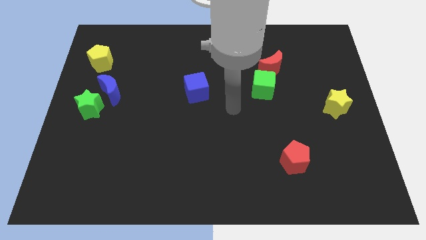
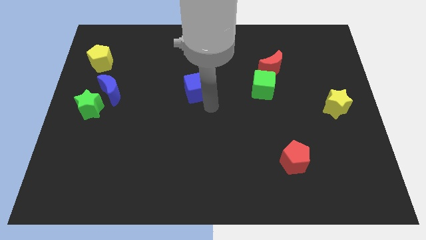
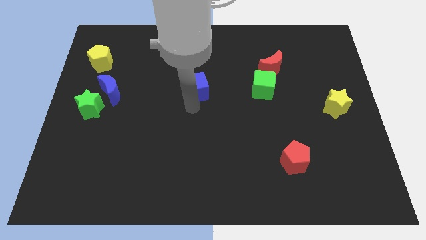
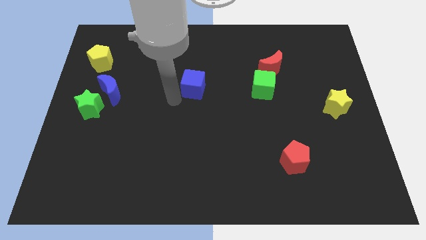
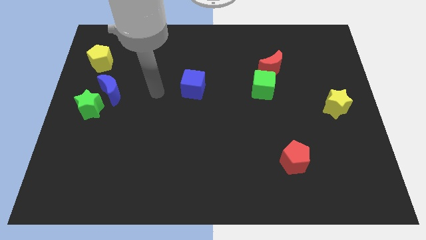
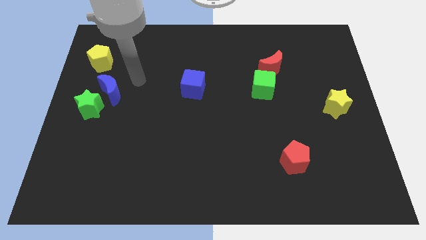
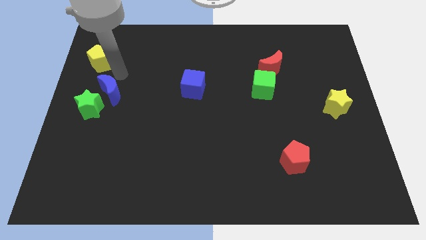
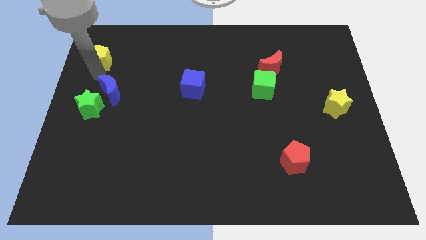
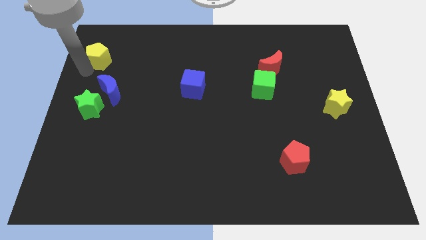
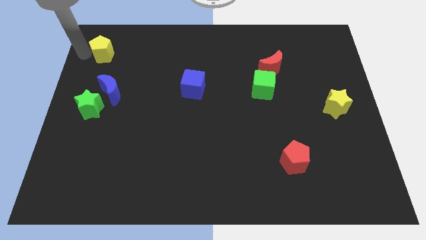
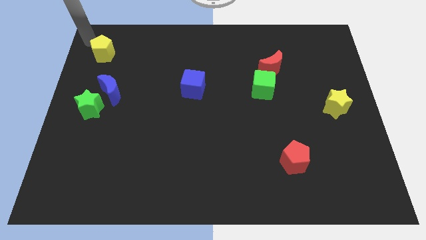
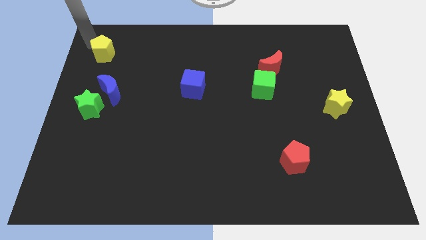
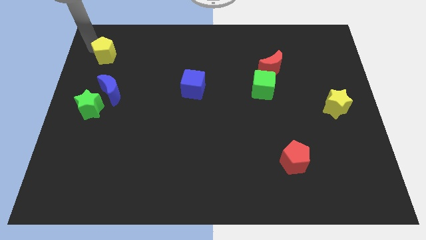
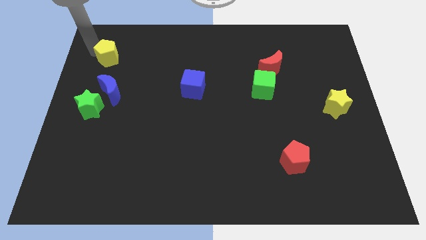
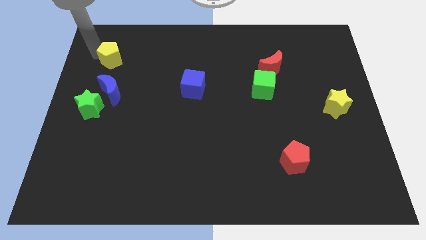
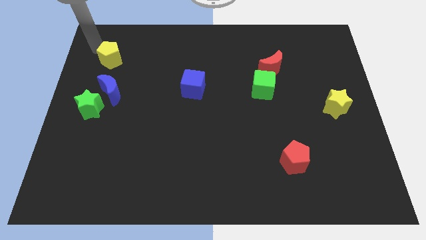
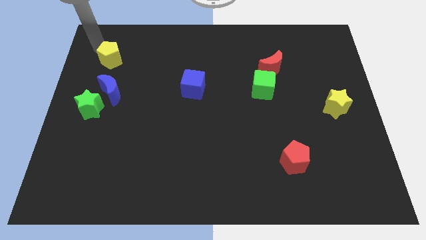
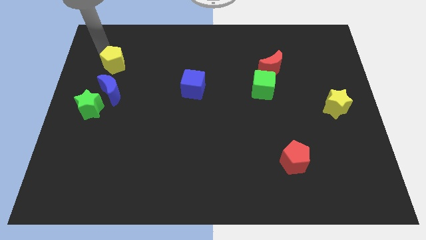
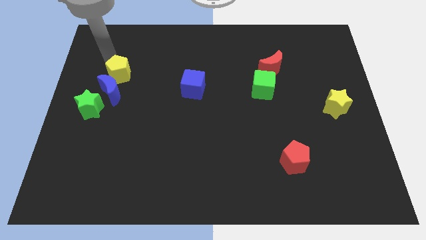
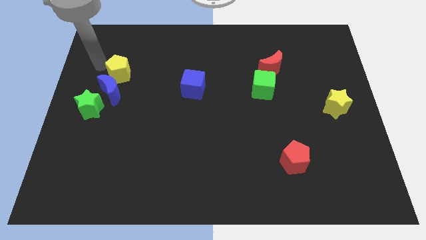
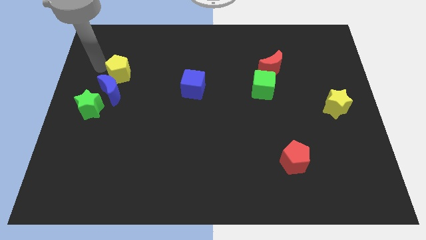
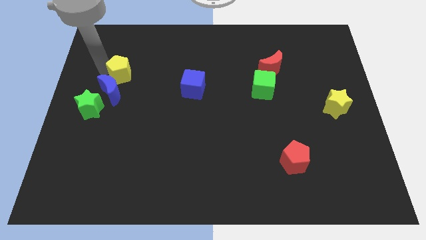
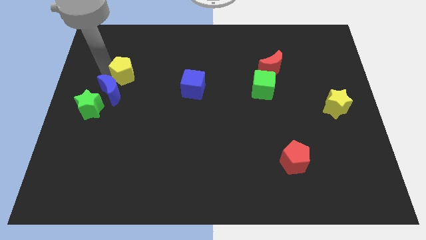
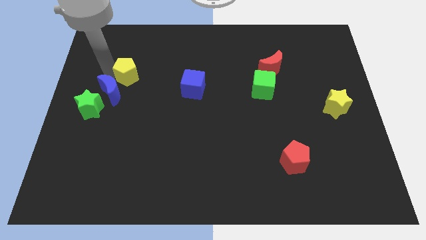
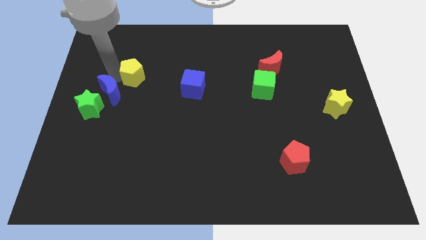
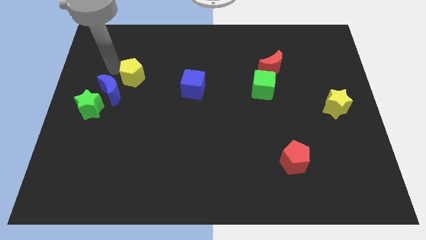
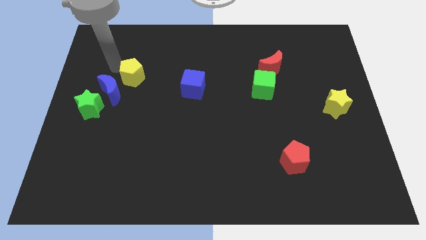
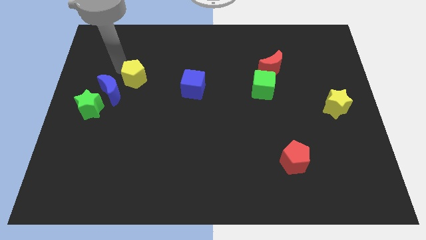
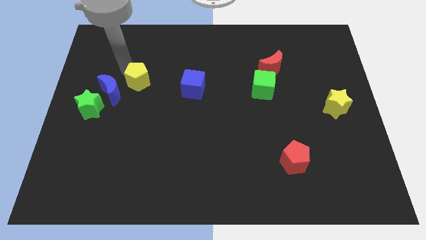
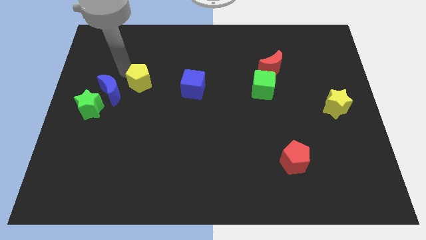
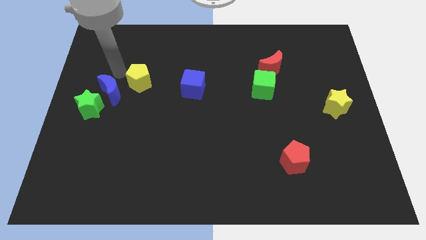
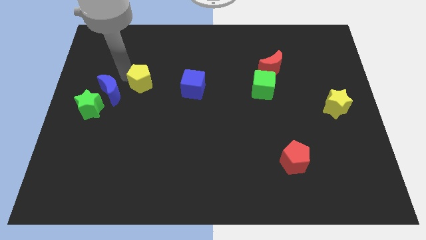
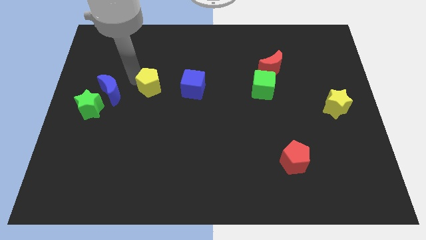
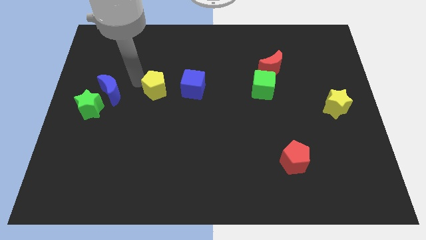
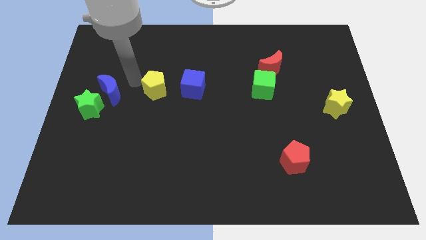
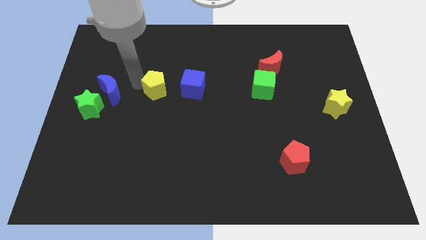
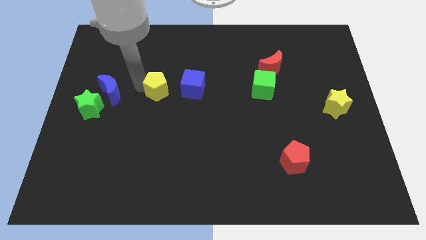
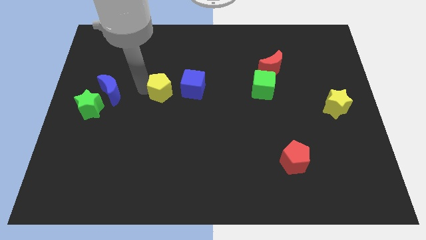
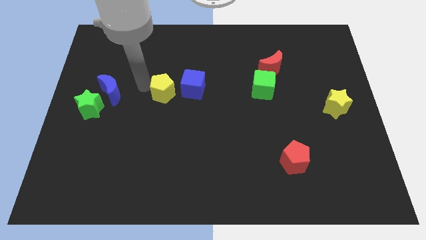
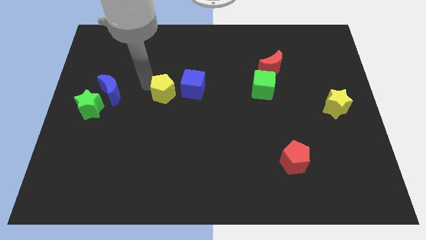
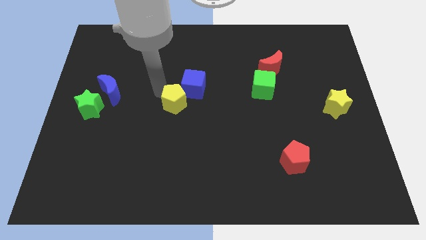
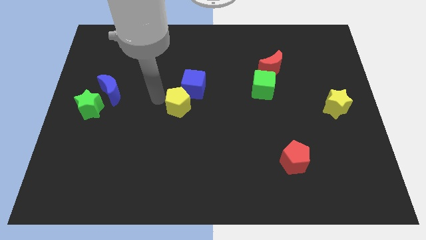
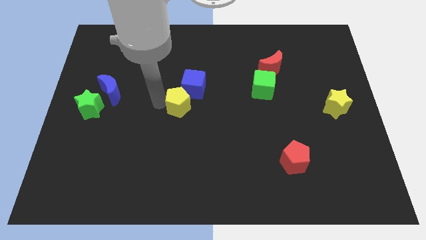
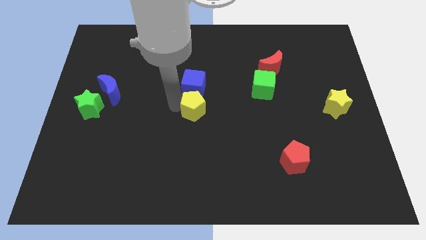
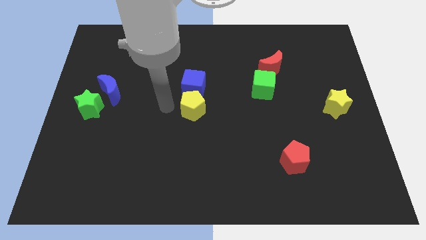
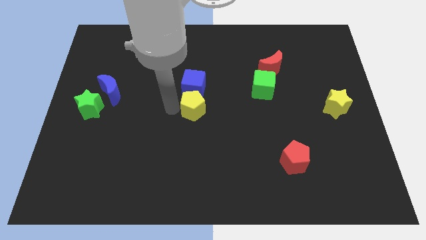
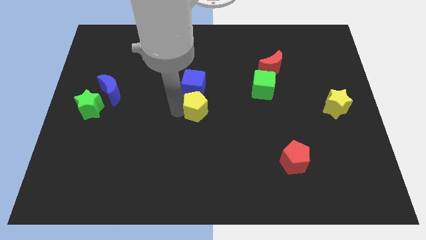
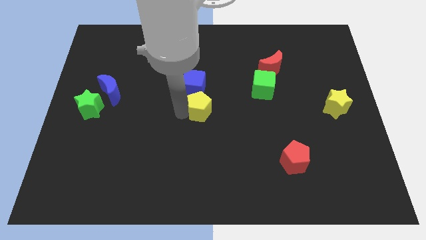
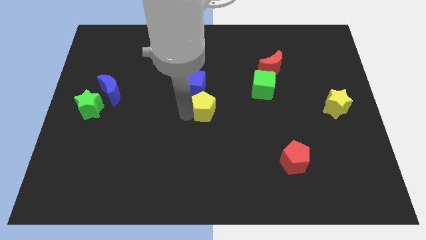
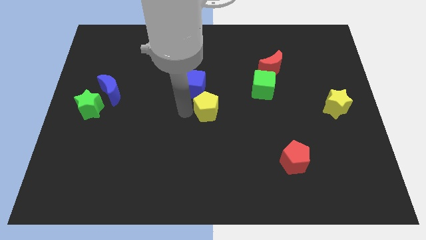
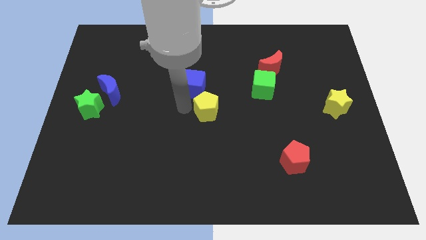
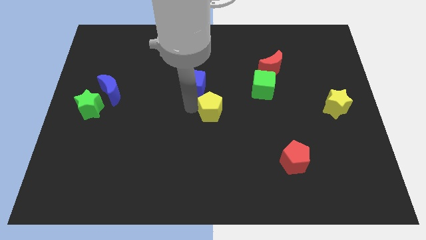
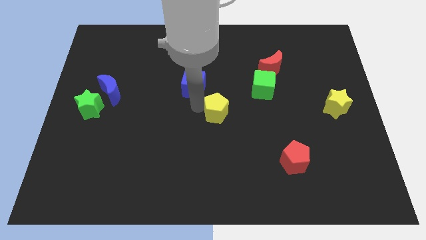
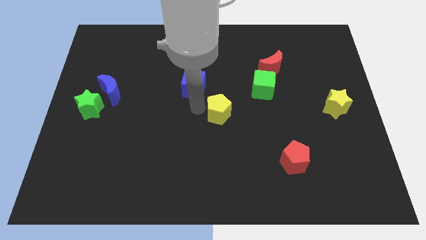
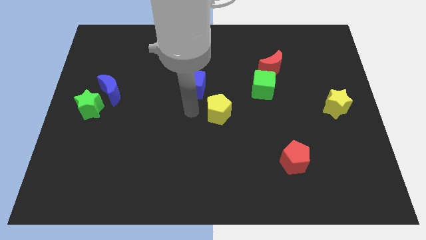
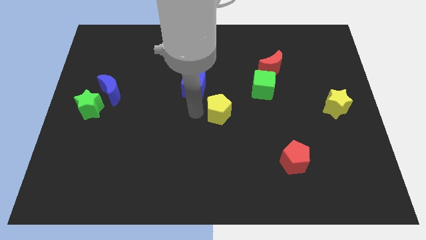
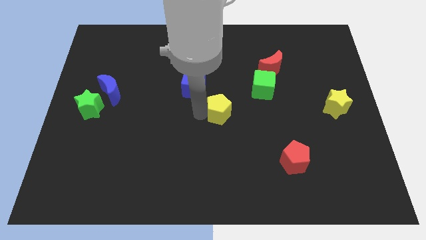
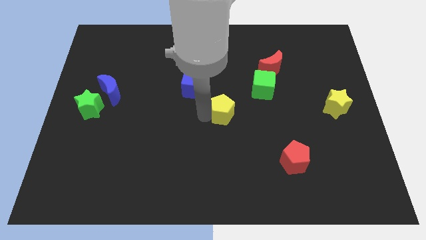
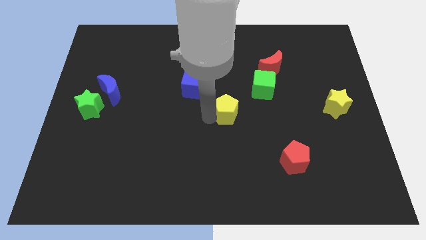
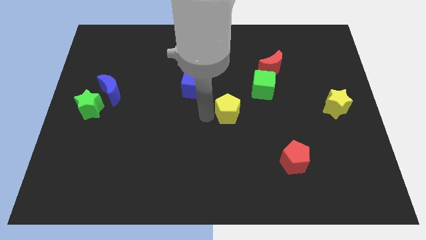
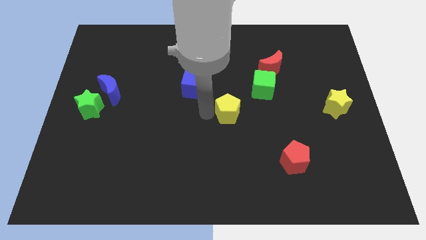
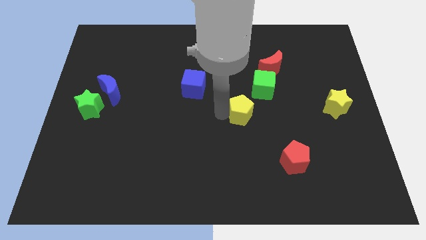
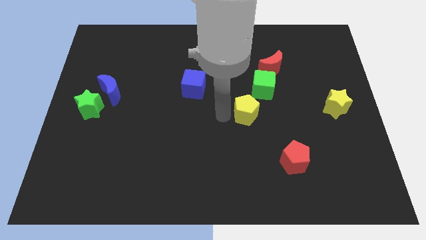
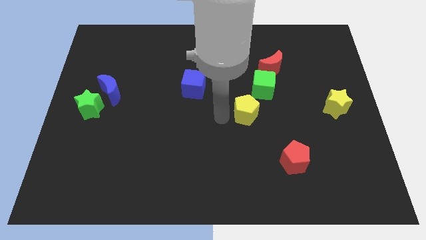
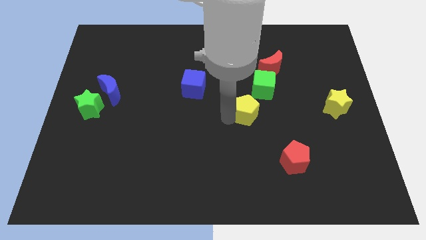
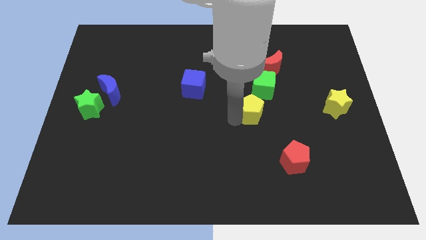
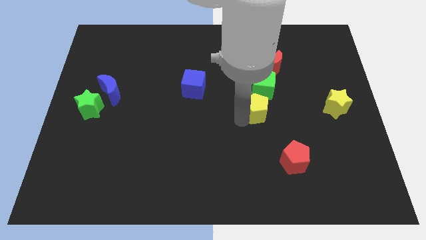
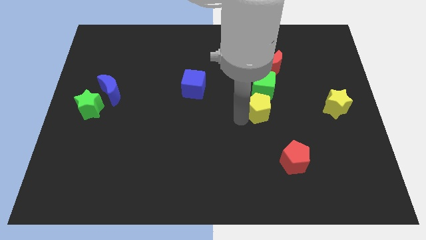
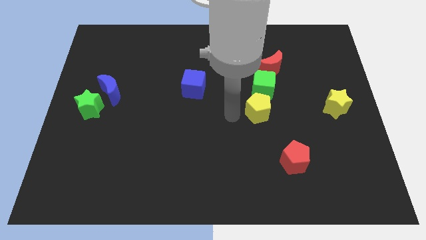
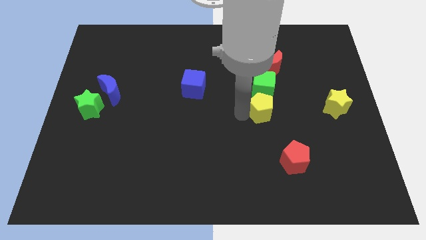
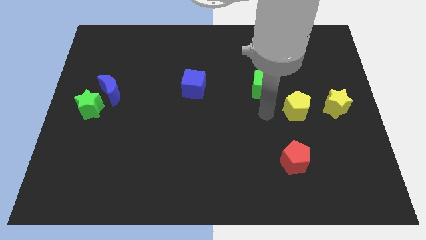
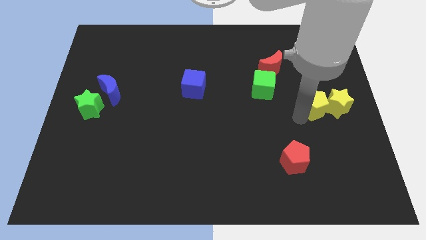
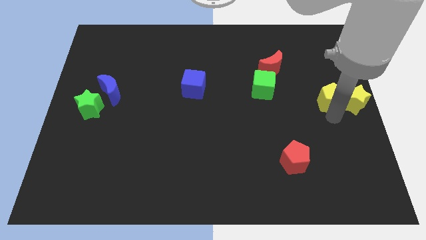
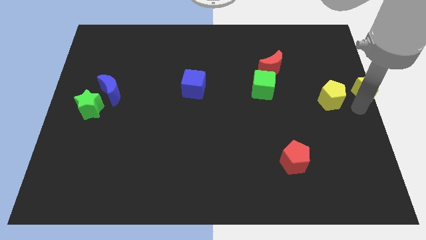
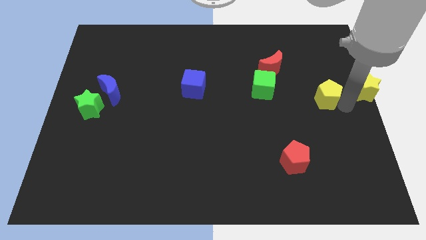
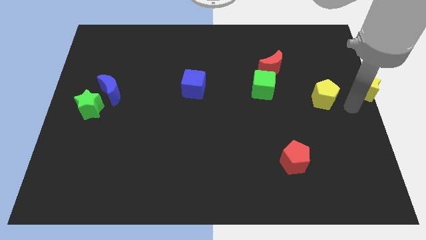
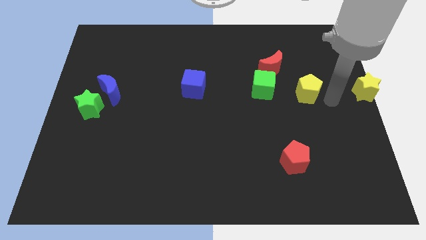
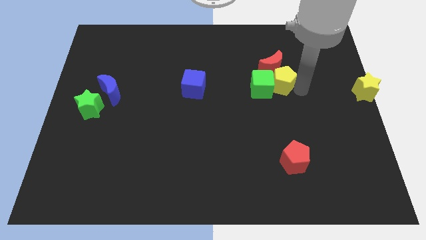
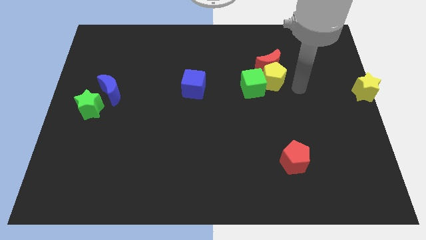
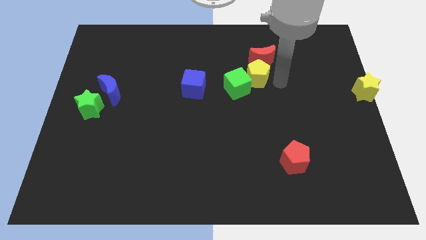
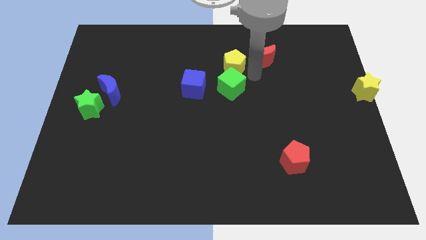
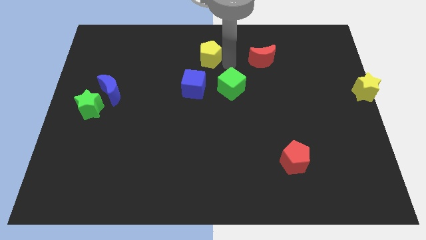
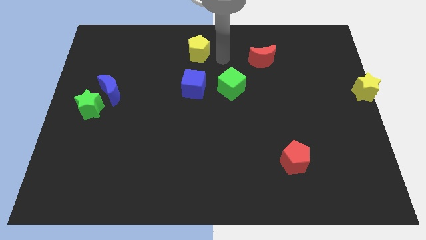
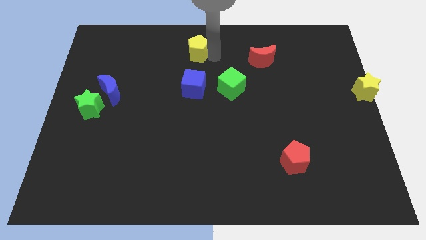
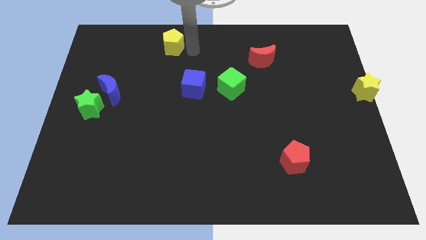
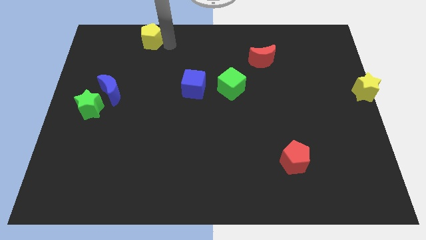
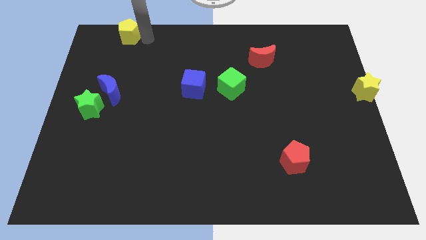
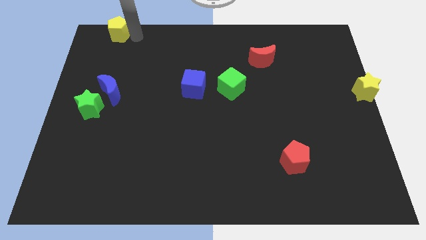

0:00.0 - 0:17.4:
move the yellow pentagon to the top left corner
